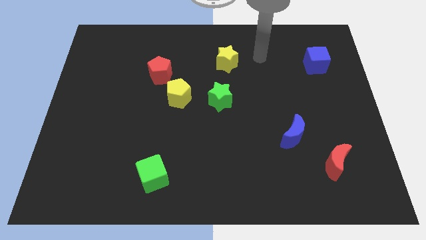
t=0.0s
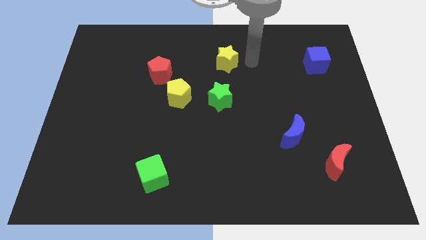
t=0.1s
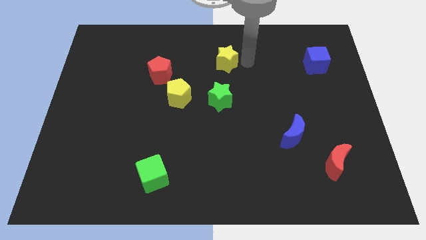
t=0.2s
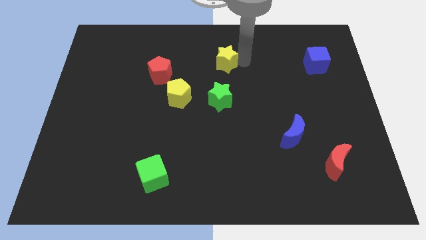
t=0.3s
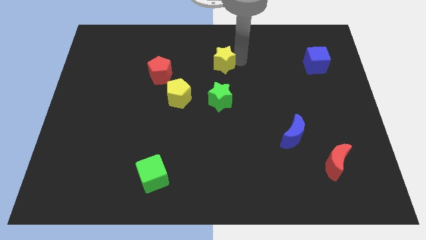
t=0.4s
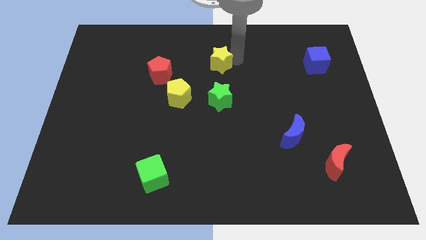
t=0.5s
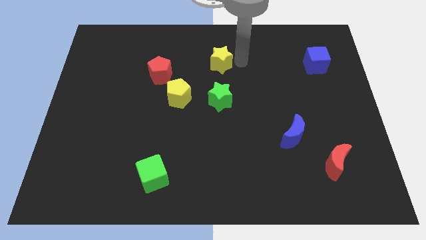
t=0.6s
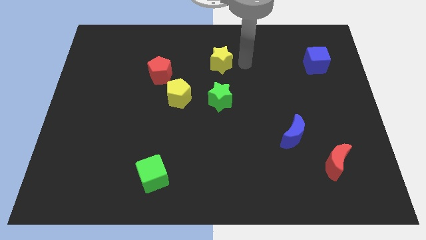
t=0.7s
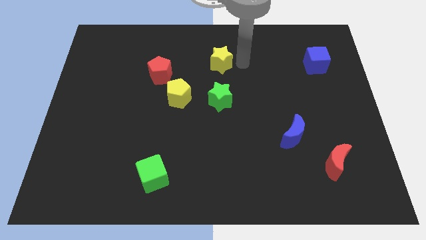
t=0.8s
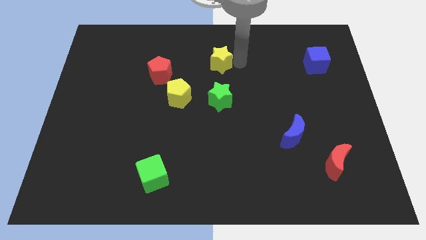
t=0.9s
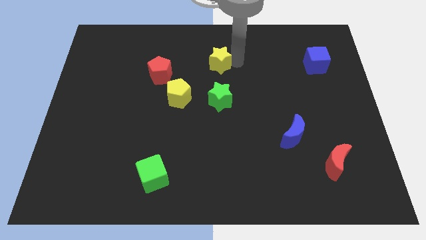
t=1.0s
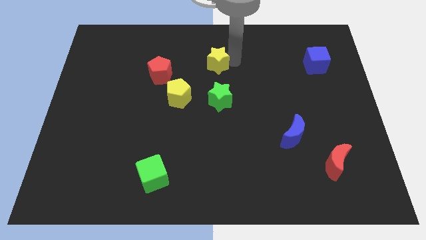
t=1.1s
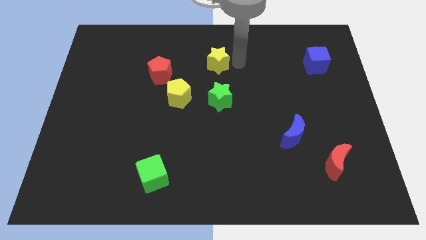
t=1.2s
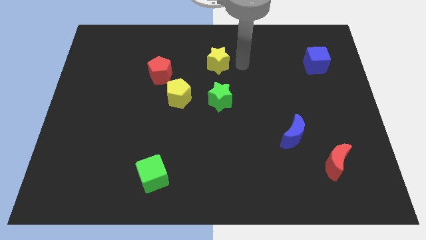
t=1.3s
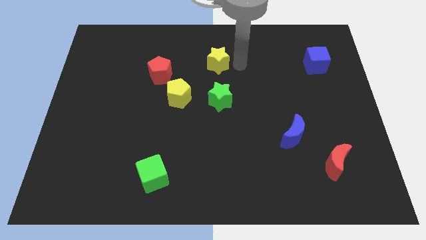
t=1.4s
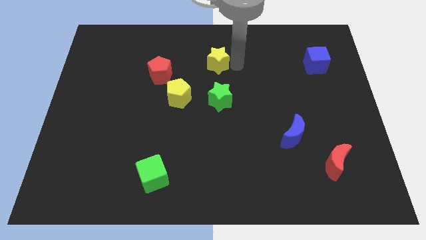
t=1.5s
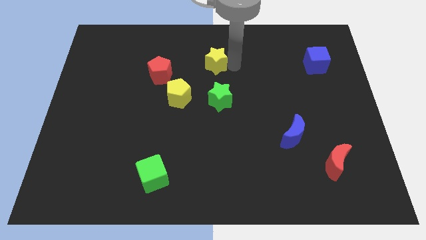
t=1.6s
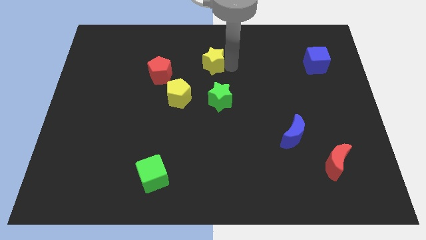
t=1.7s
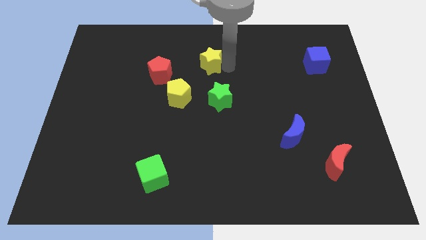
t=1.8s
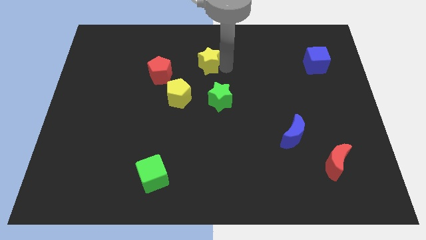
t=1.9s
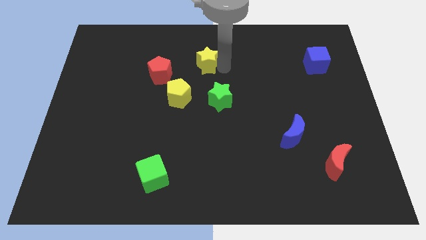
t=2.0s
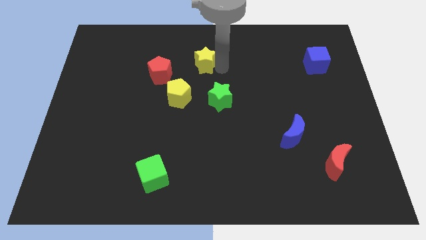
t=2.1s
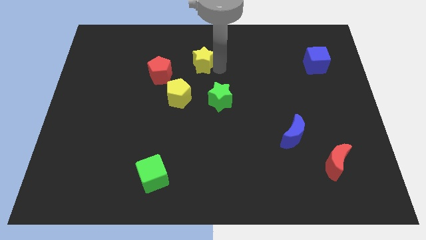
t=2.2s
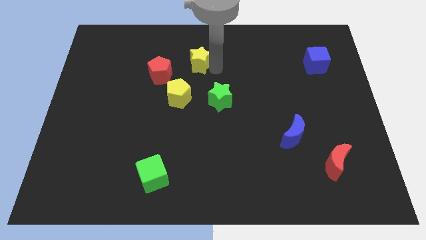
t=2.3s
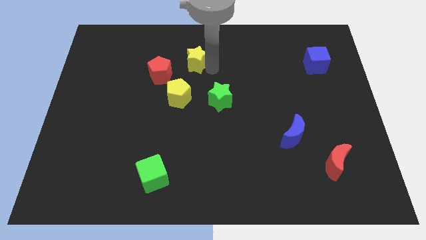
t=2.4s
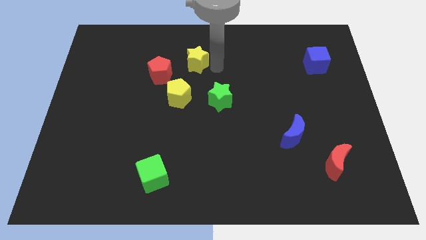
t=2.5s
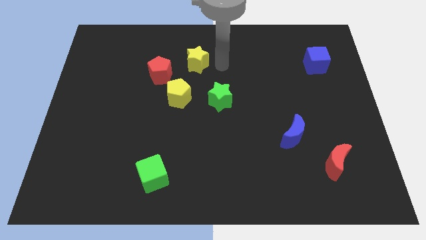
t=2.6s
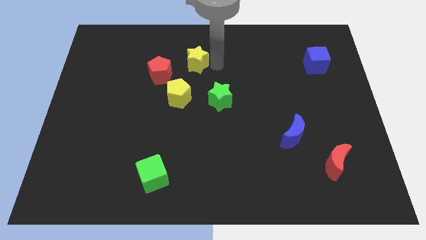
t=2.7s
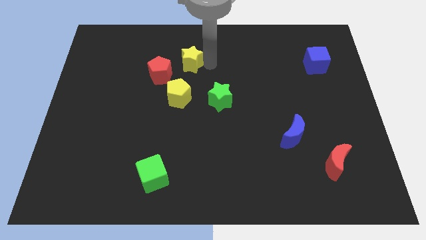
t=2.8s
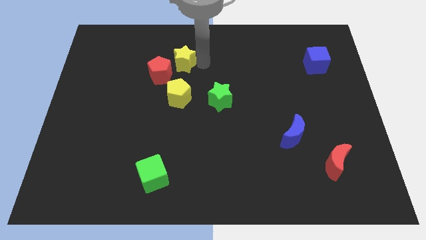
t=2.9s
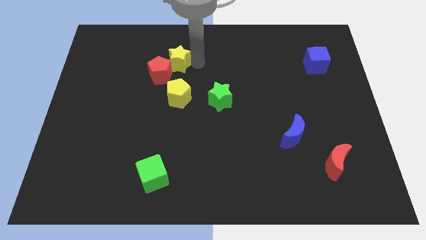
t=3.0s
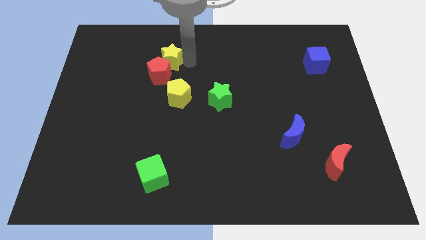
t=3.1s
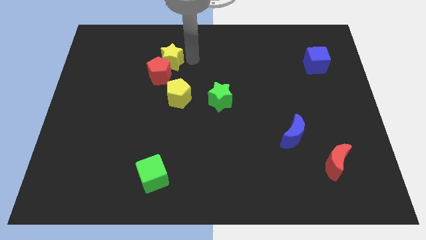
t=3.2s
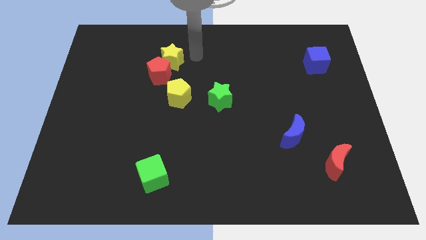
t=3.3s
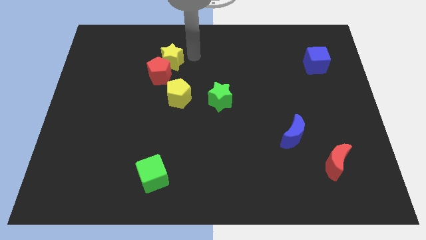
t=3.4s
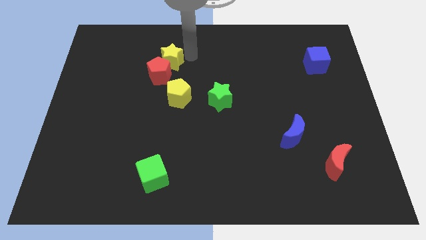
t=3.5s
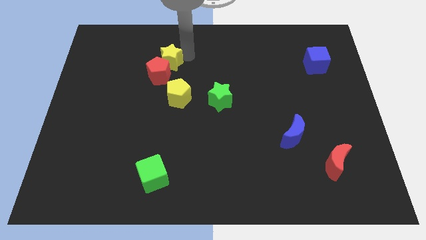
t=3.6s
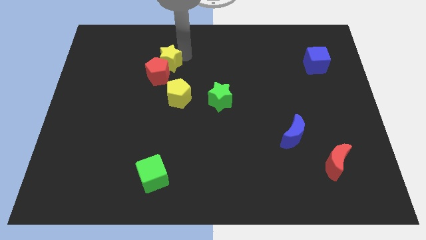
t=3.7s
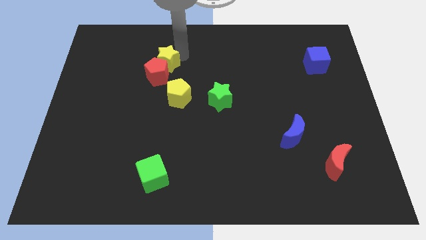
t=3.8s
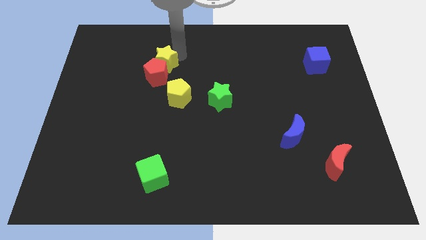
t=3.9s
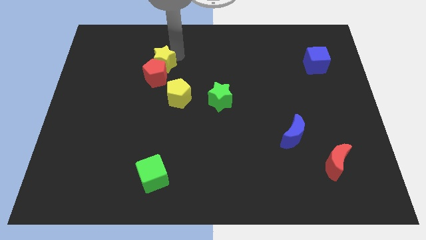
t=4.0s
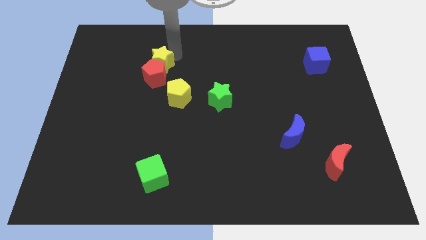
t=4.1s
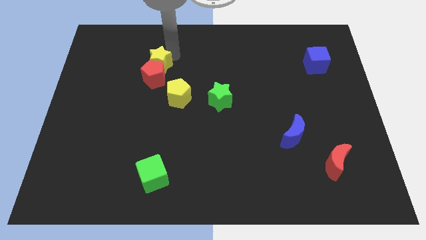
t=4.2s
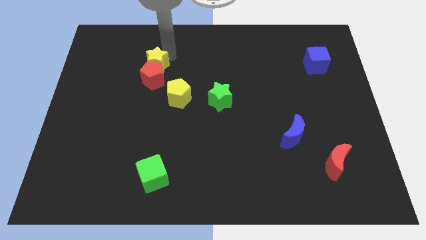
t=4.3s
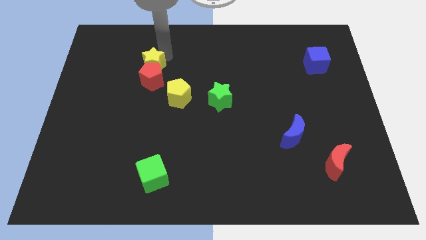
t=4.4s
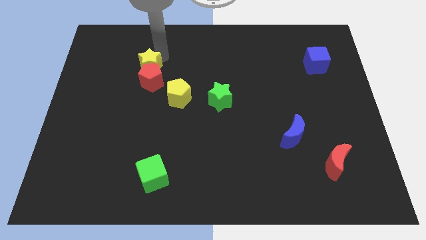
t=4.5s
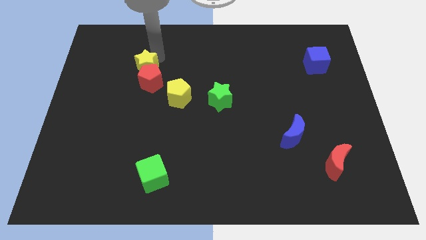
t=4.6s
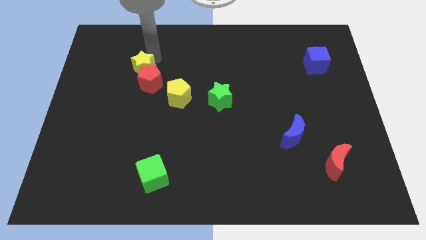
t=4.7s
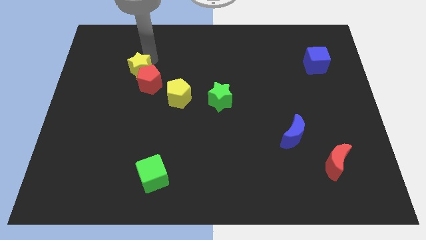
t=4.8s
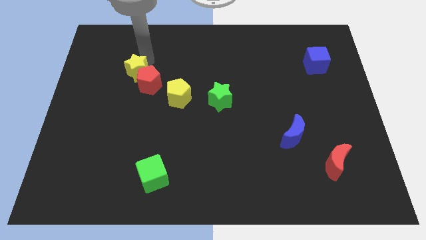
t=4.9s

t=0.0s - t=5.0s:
slide the yellow star left of the red pentagon

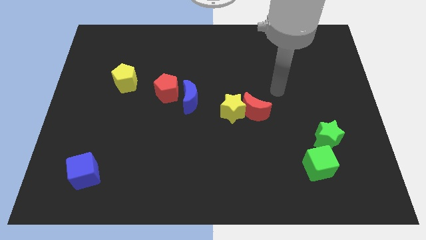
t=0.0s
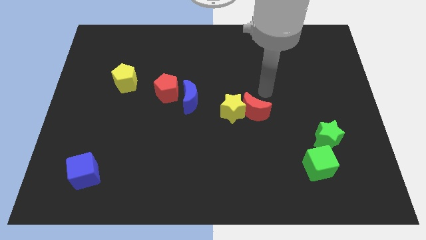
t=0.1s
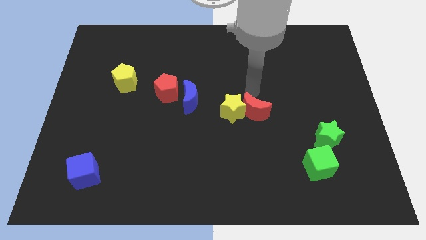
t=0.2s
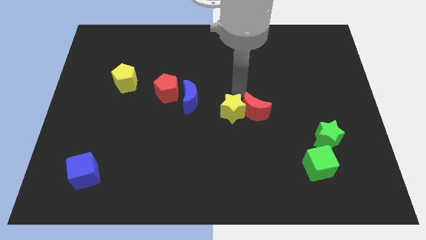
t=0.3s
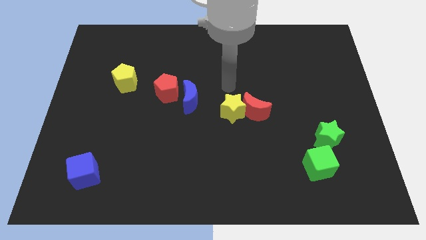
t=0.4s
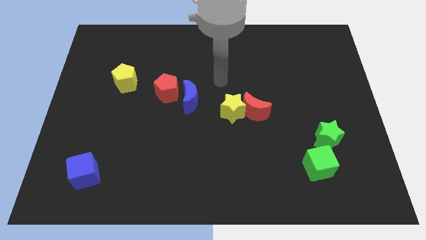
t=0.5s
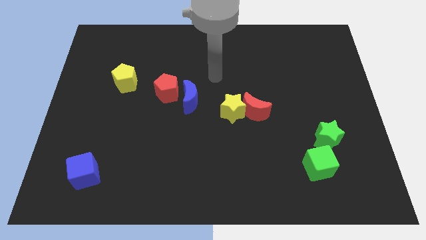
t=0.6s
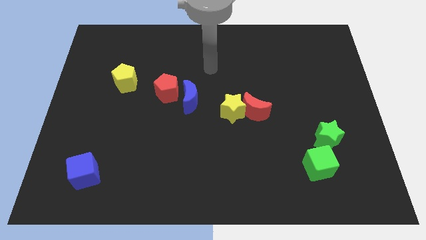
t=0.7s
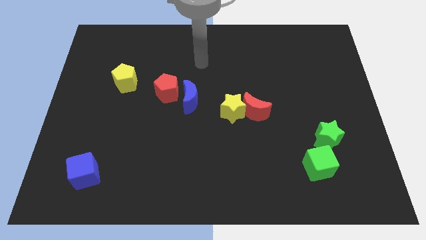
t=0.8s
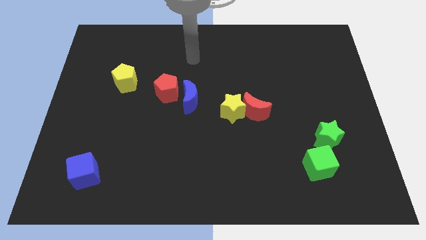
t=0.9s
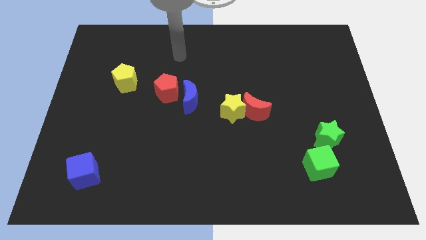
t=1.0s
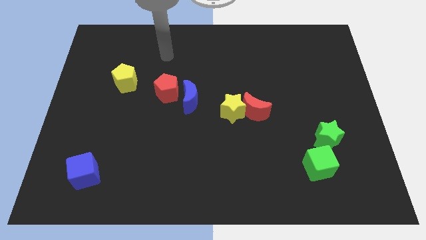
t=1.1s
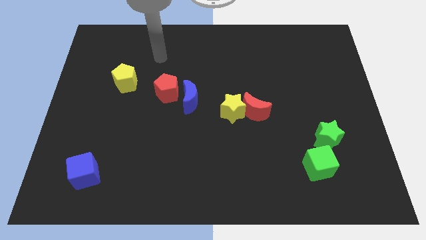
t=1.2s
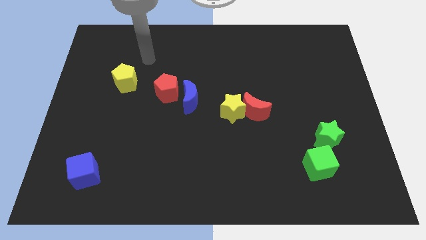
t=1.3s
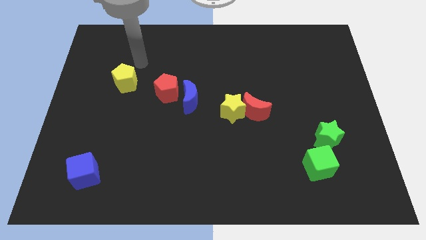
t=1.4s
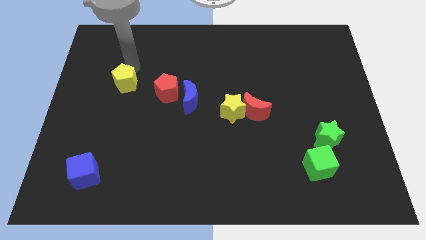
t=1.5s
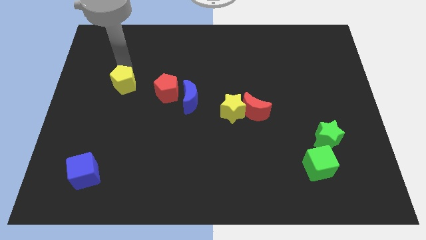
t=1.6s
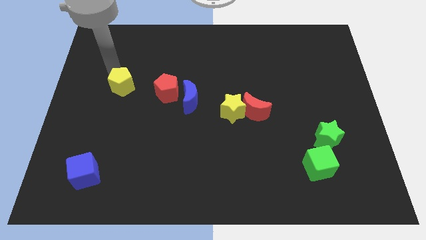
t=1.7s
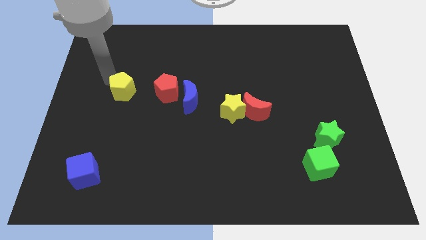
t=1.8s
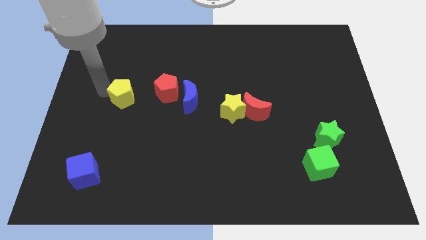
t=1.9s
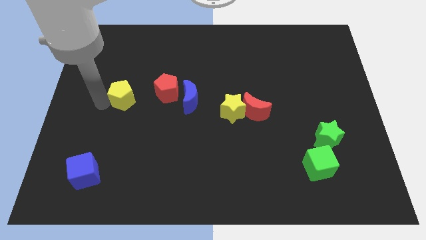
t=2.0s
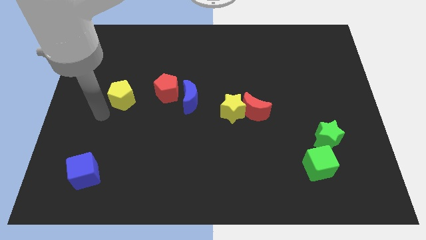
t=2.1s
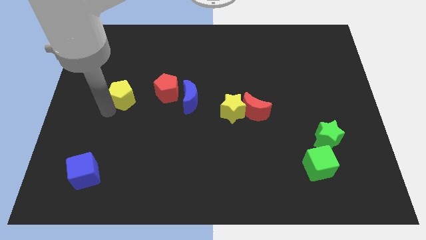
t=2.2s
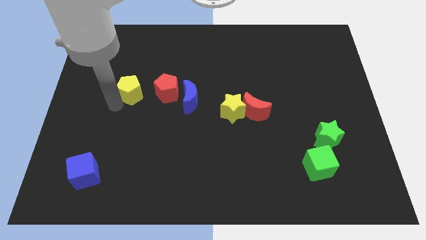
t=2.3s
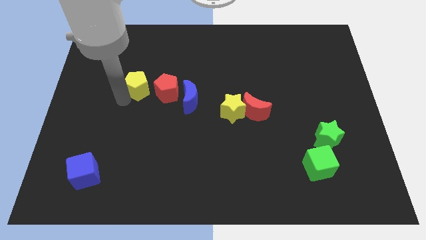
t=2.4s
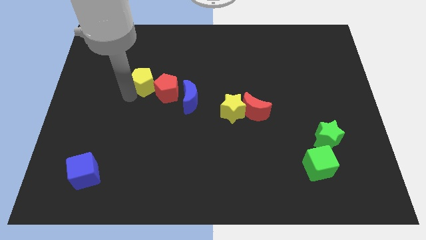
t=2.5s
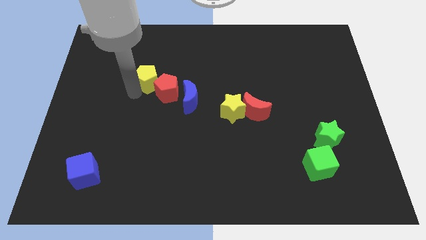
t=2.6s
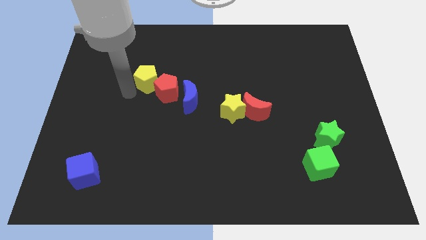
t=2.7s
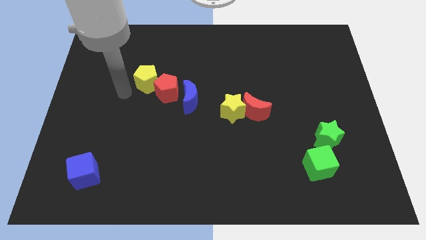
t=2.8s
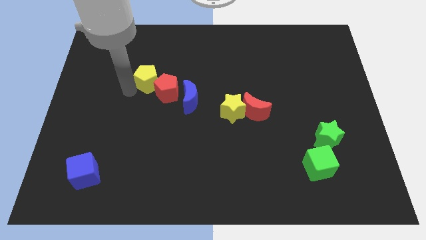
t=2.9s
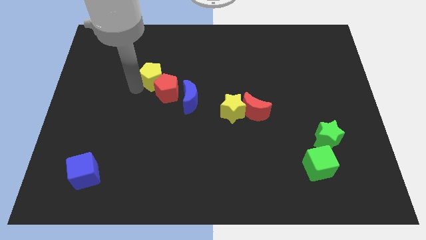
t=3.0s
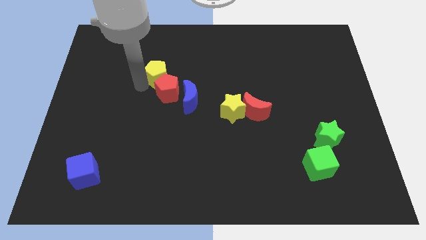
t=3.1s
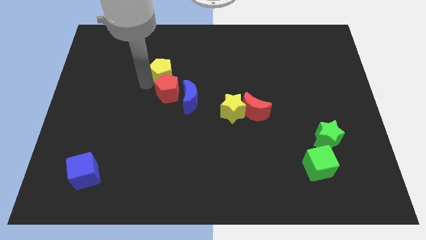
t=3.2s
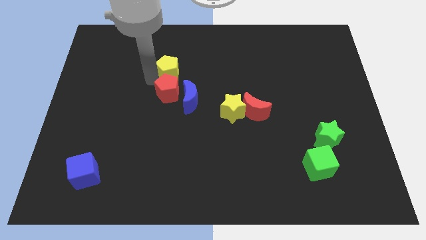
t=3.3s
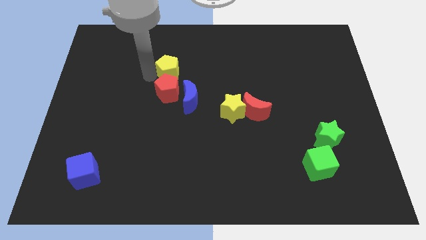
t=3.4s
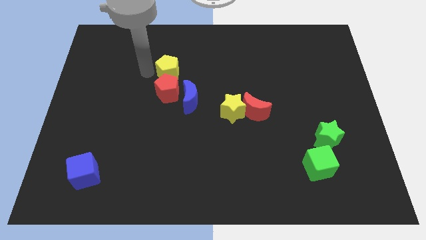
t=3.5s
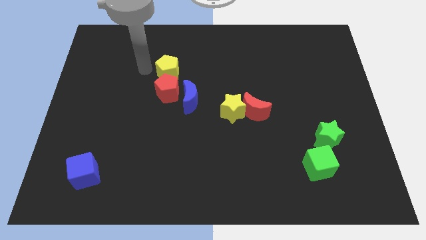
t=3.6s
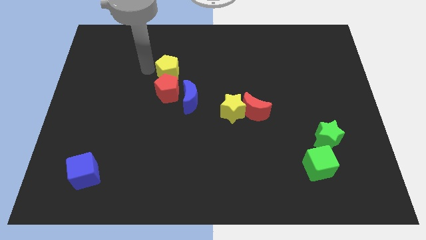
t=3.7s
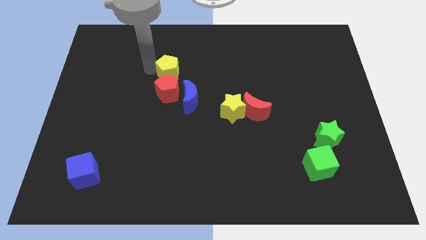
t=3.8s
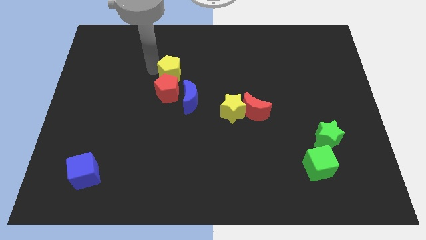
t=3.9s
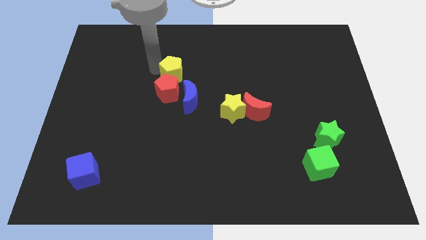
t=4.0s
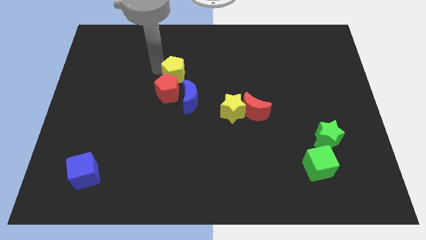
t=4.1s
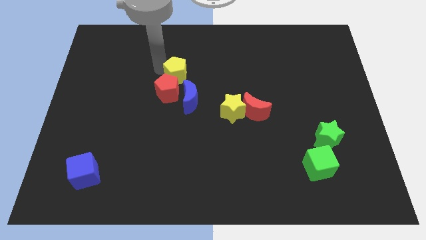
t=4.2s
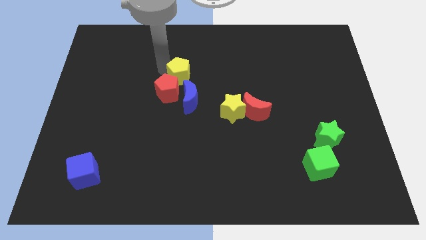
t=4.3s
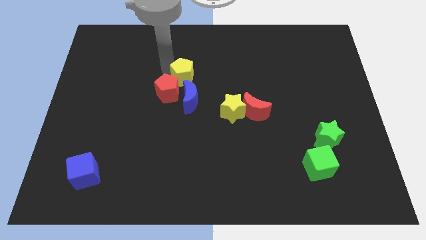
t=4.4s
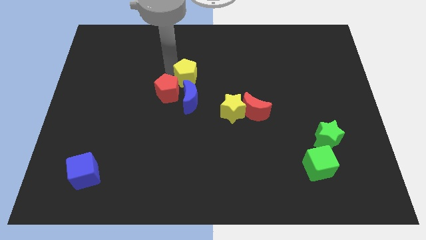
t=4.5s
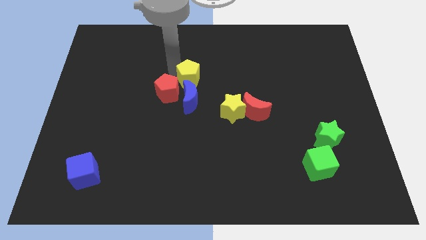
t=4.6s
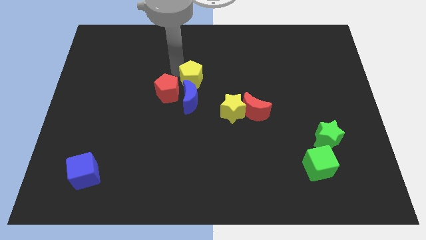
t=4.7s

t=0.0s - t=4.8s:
put the yellow pentagon diagonally up and to the right of the blue moon
